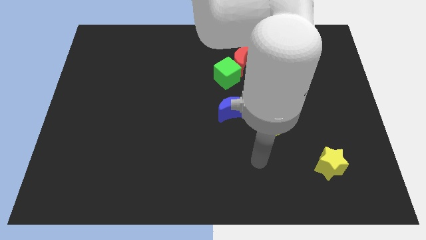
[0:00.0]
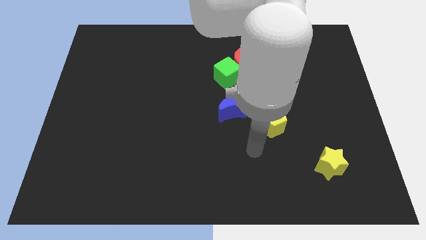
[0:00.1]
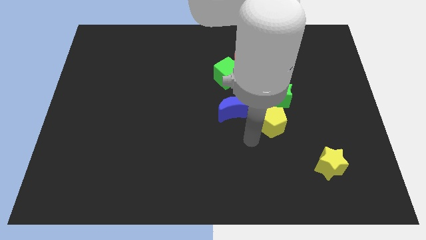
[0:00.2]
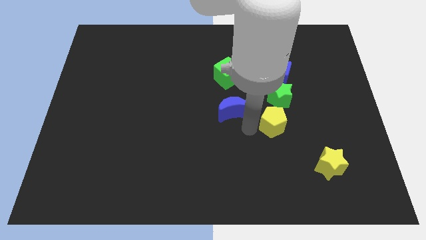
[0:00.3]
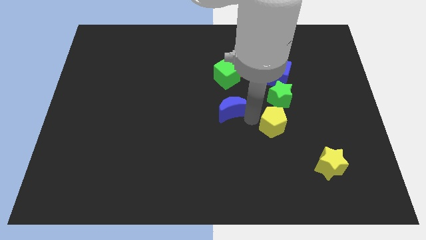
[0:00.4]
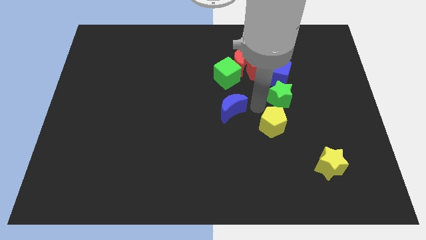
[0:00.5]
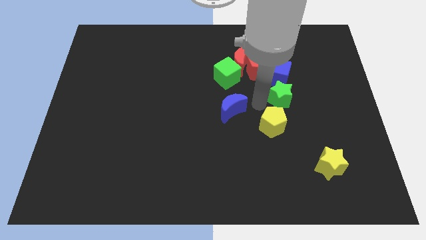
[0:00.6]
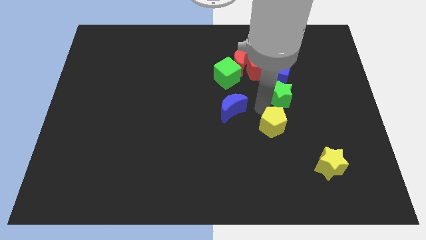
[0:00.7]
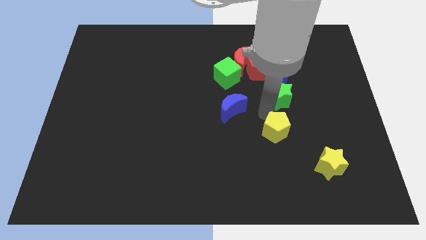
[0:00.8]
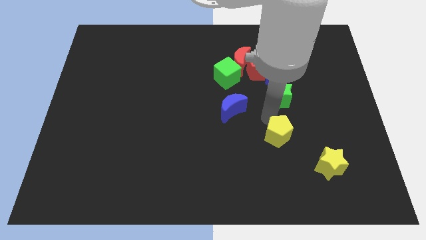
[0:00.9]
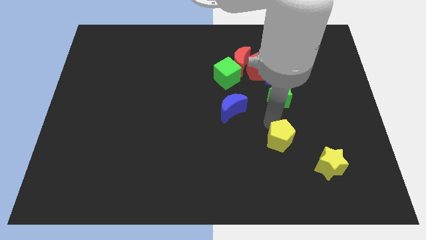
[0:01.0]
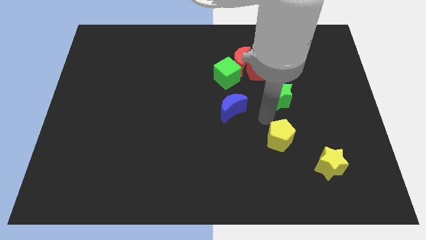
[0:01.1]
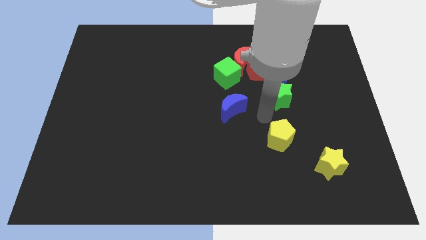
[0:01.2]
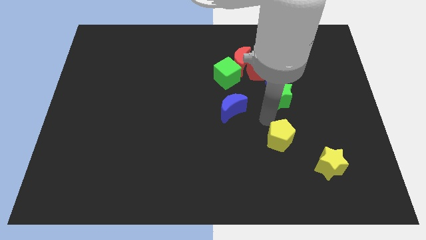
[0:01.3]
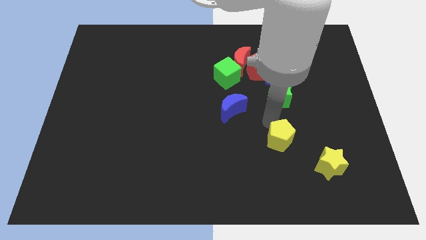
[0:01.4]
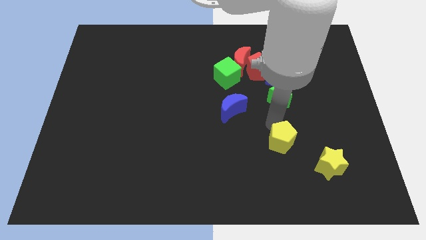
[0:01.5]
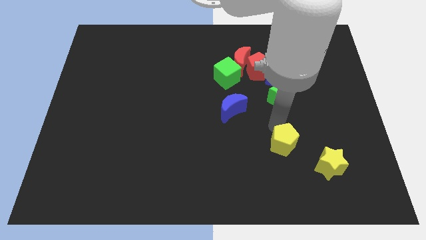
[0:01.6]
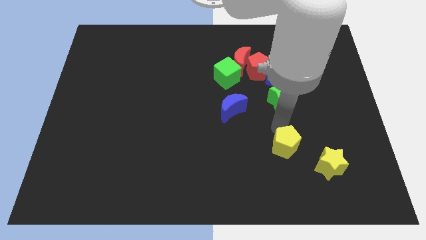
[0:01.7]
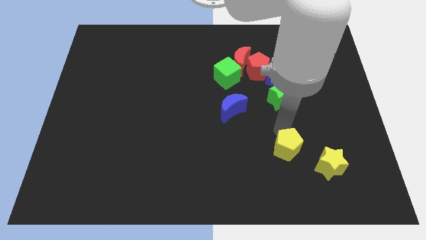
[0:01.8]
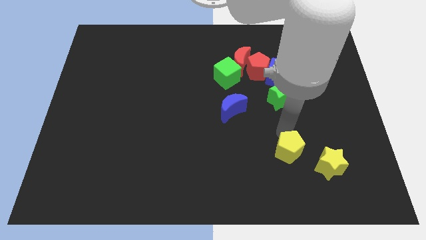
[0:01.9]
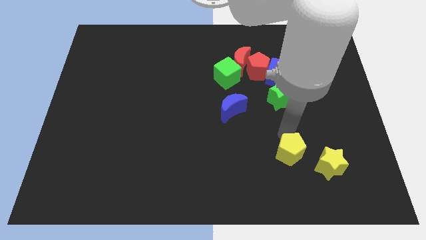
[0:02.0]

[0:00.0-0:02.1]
slide the yellow pentagon slightly down and right

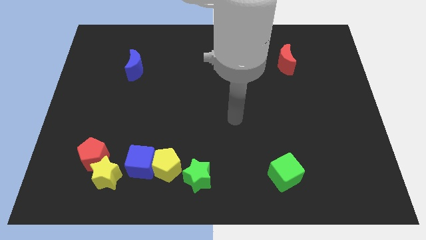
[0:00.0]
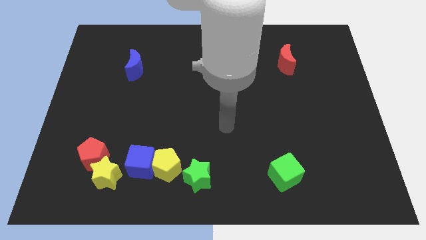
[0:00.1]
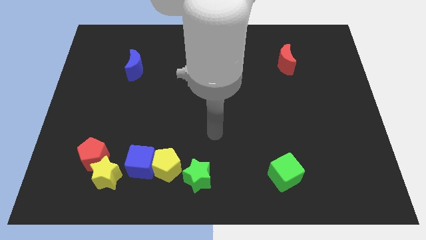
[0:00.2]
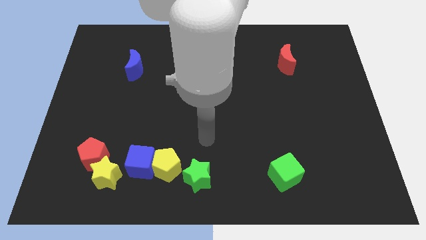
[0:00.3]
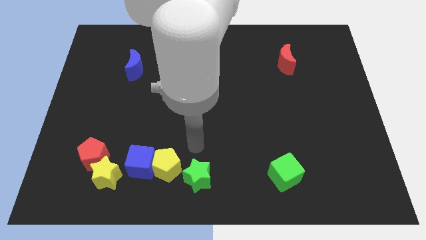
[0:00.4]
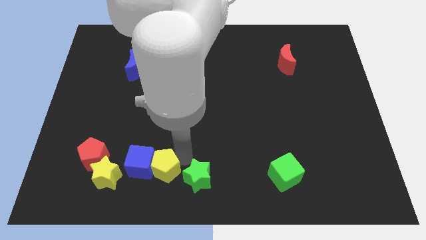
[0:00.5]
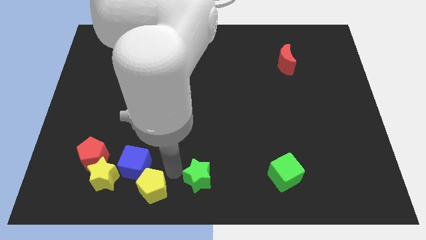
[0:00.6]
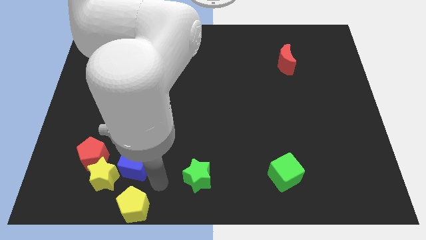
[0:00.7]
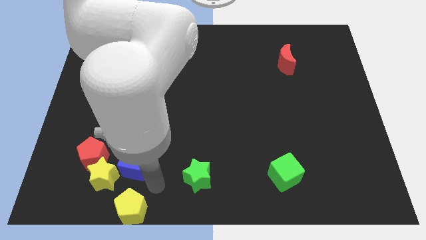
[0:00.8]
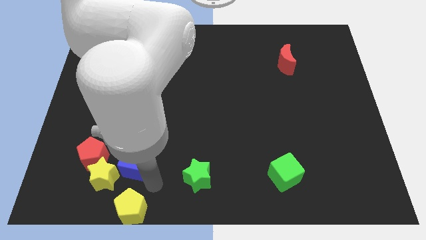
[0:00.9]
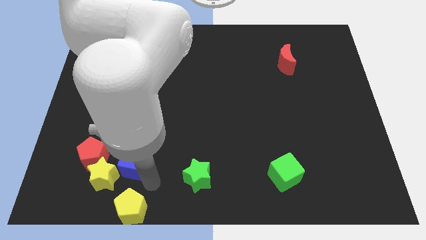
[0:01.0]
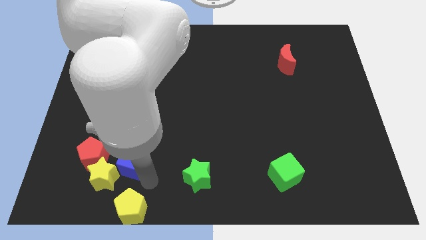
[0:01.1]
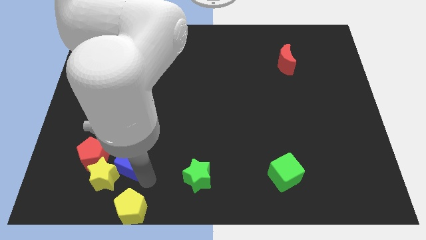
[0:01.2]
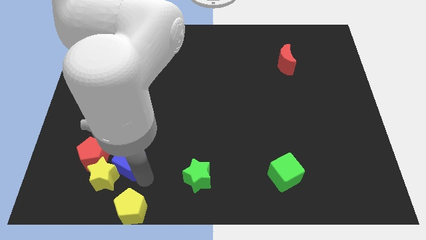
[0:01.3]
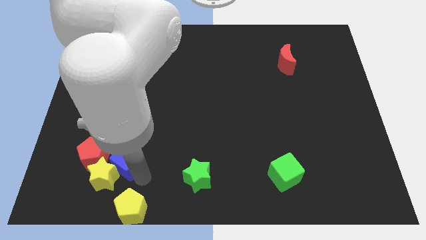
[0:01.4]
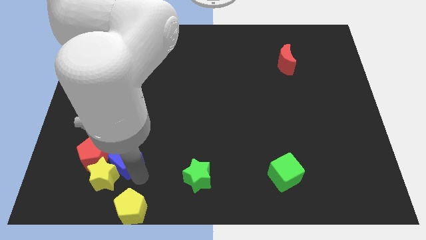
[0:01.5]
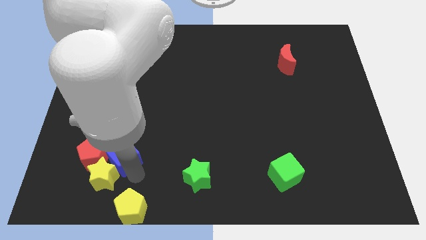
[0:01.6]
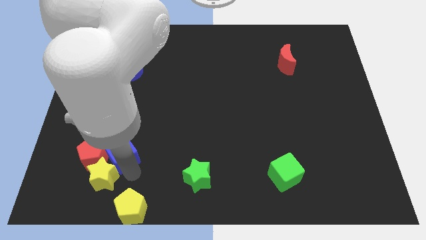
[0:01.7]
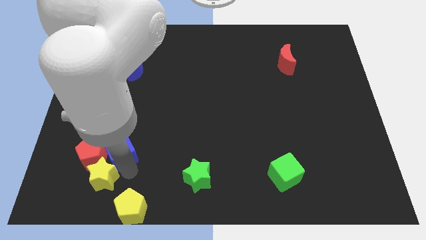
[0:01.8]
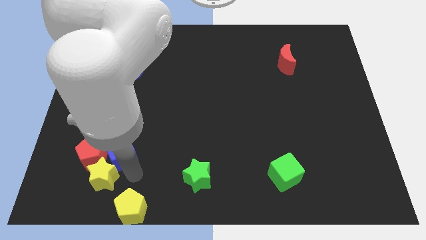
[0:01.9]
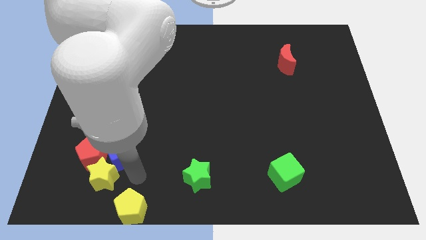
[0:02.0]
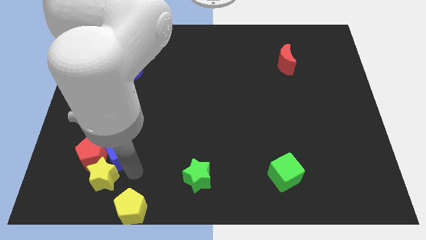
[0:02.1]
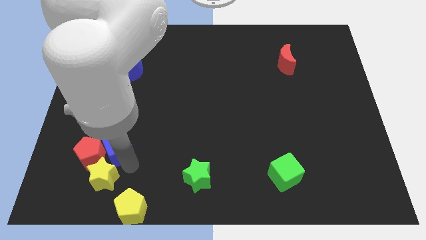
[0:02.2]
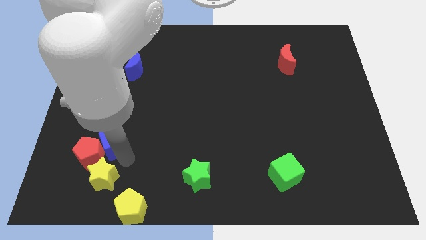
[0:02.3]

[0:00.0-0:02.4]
slide the blue cube a little diagonally upwards and left

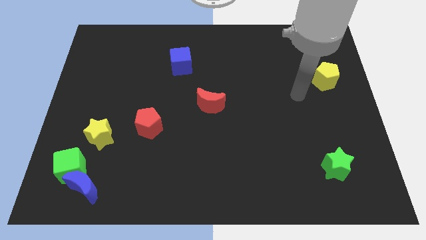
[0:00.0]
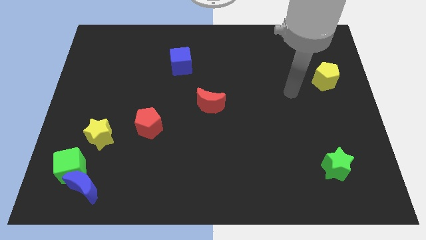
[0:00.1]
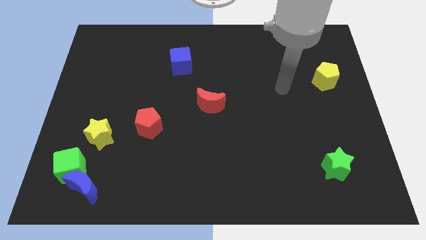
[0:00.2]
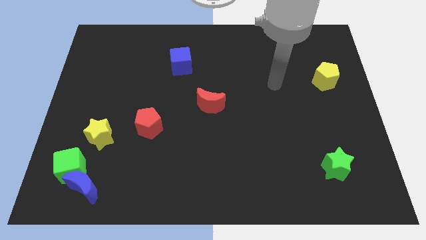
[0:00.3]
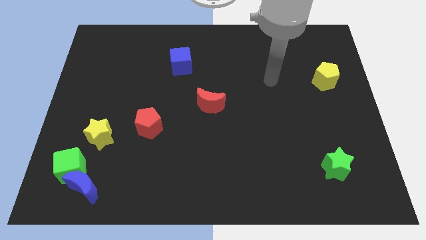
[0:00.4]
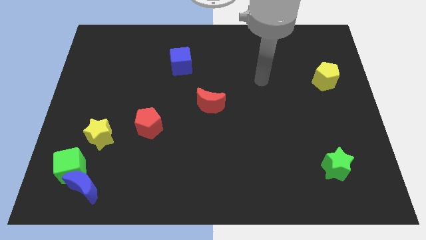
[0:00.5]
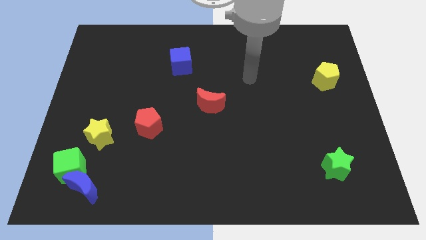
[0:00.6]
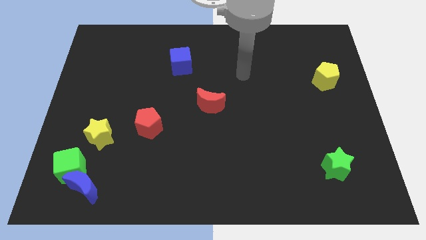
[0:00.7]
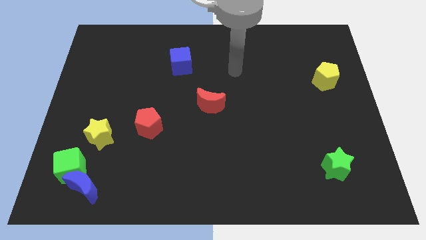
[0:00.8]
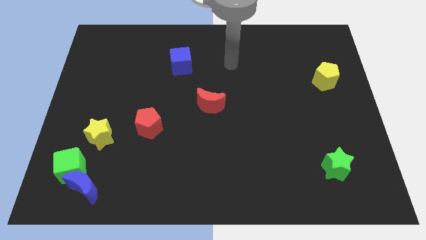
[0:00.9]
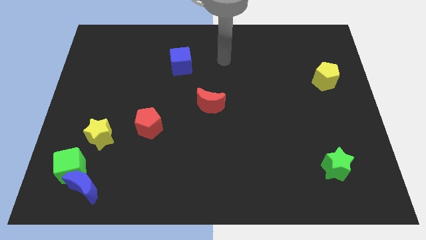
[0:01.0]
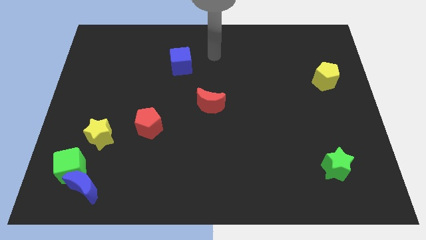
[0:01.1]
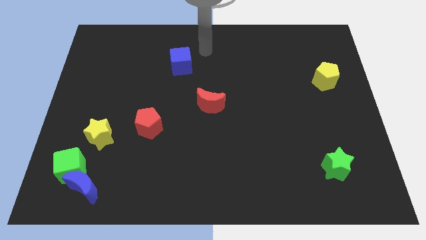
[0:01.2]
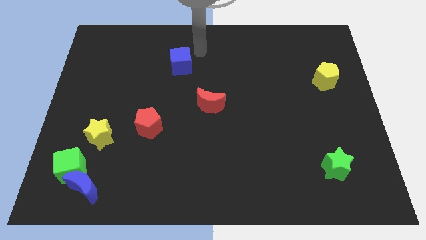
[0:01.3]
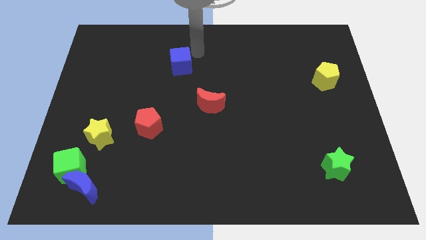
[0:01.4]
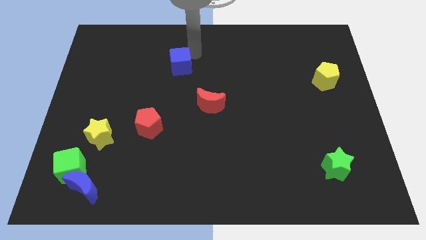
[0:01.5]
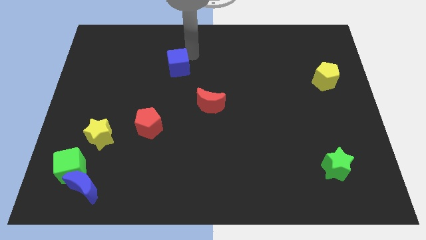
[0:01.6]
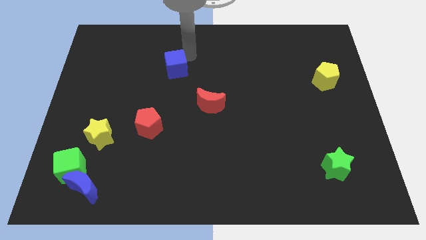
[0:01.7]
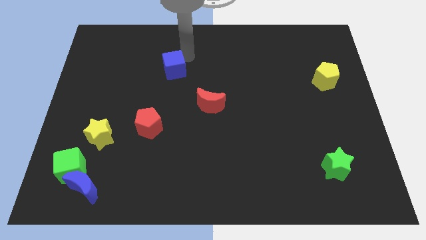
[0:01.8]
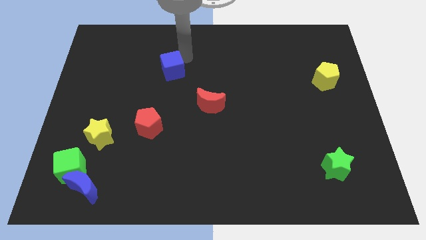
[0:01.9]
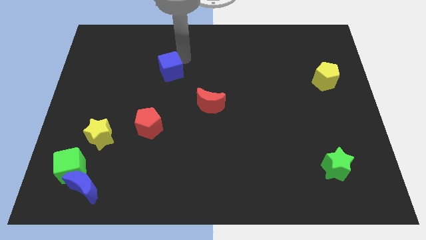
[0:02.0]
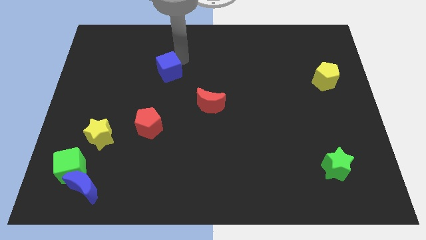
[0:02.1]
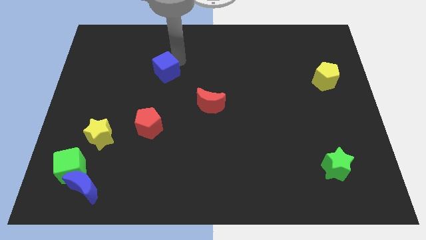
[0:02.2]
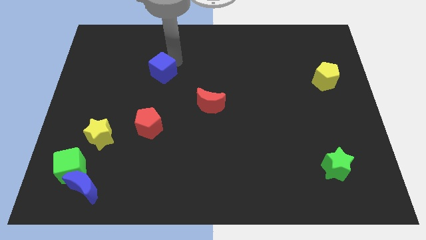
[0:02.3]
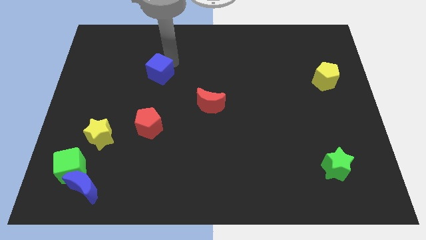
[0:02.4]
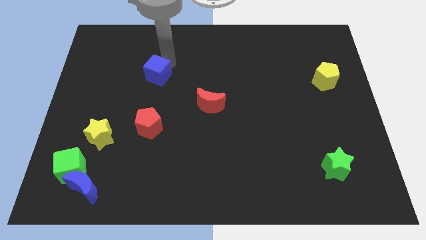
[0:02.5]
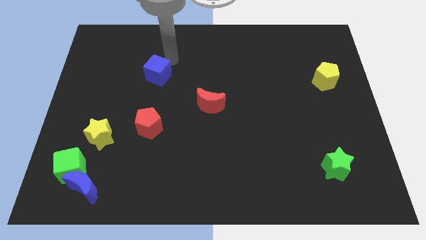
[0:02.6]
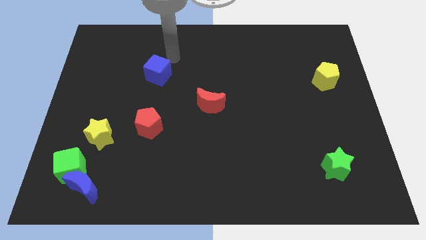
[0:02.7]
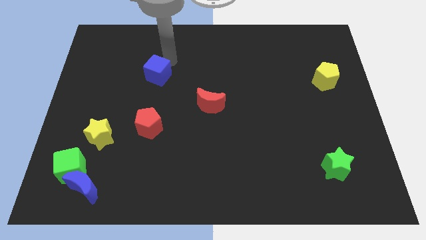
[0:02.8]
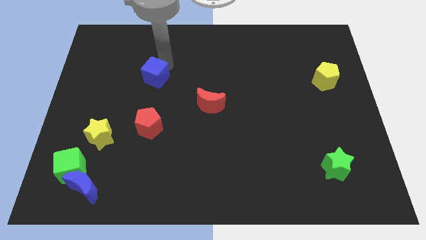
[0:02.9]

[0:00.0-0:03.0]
slide the blue cube down and then to the left a little bit

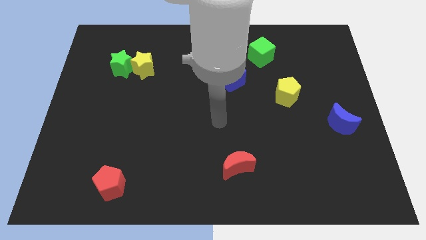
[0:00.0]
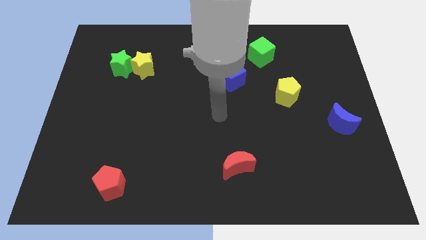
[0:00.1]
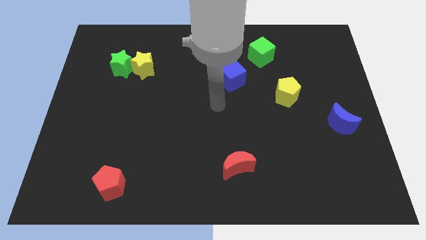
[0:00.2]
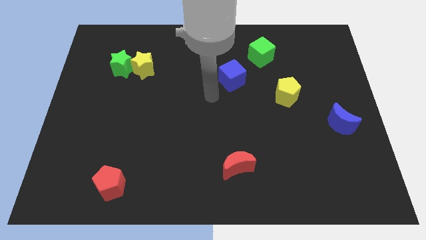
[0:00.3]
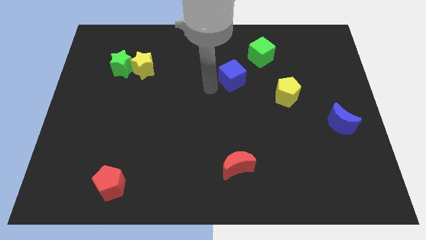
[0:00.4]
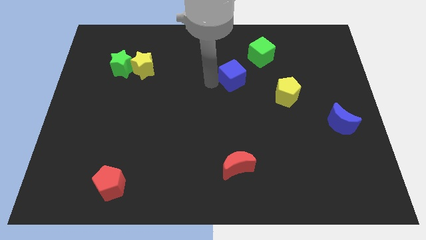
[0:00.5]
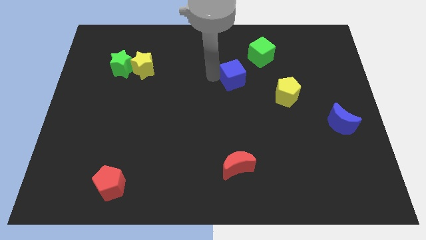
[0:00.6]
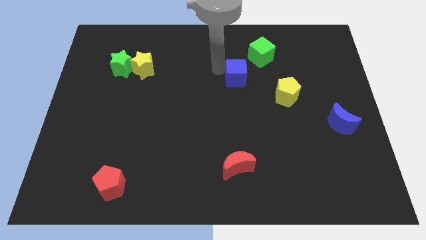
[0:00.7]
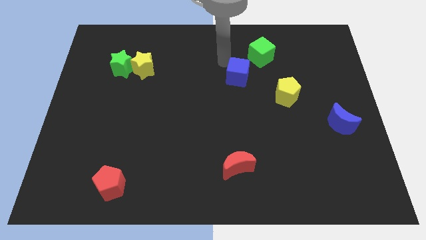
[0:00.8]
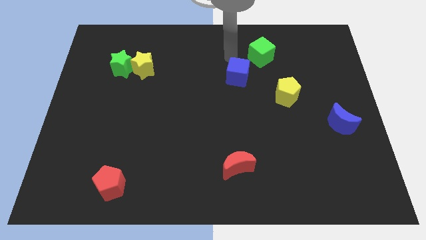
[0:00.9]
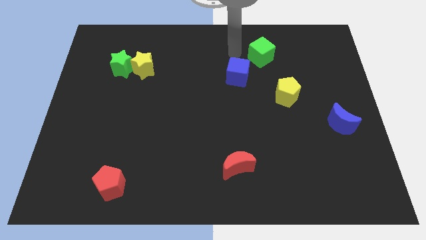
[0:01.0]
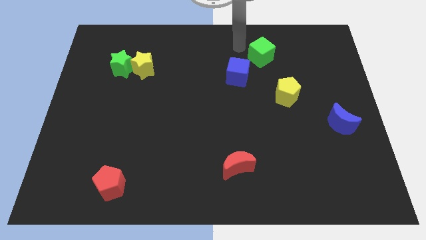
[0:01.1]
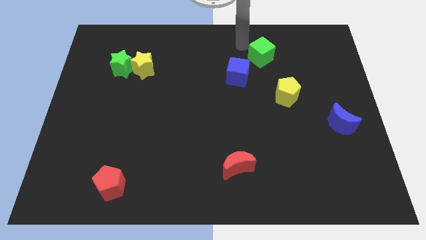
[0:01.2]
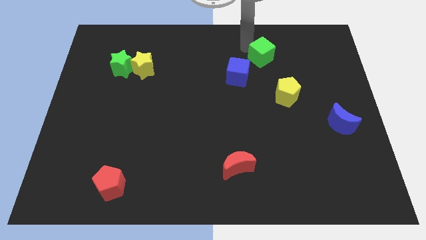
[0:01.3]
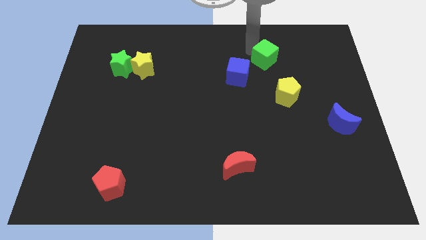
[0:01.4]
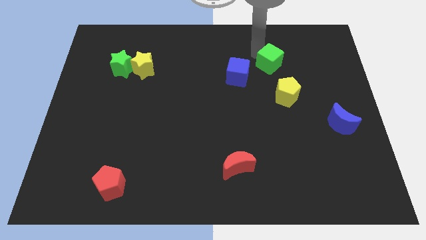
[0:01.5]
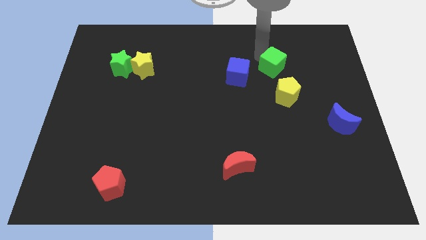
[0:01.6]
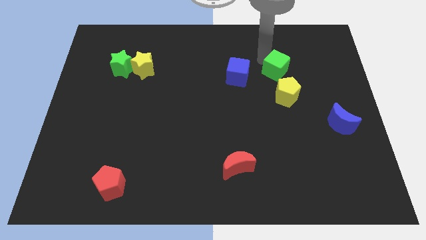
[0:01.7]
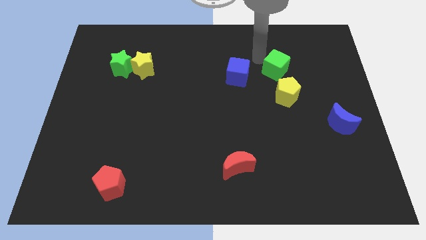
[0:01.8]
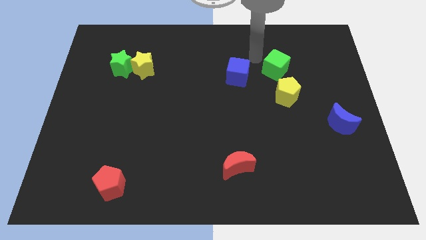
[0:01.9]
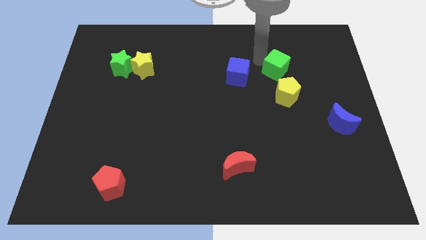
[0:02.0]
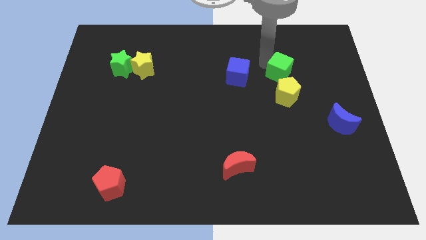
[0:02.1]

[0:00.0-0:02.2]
push the green cube down and then to the right a bit
